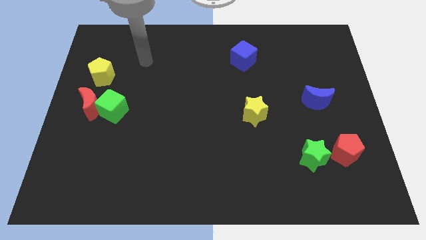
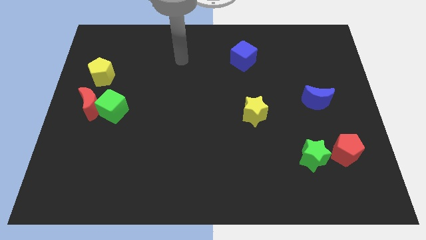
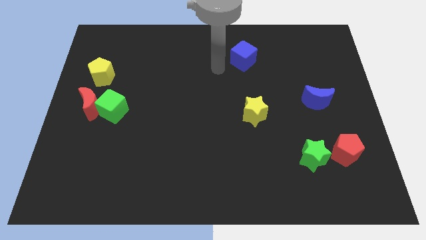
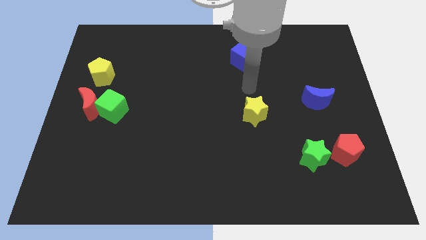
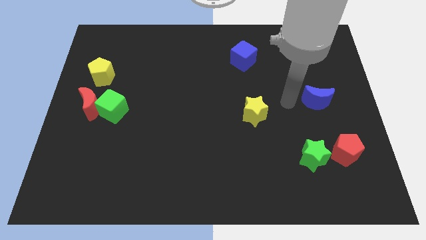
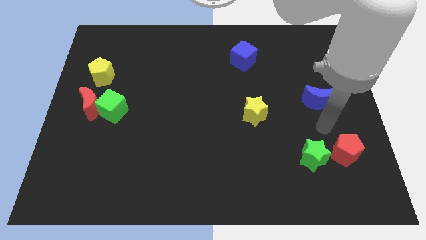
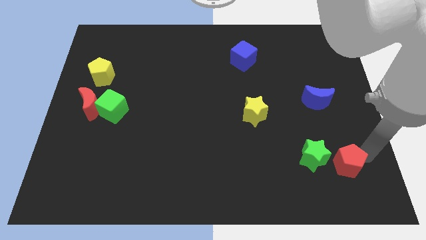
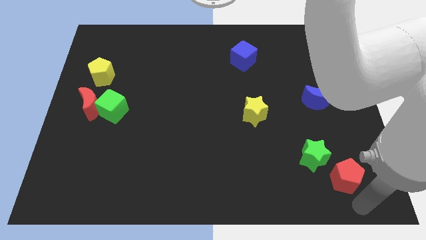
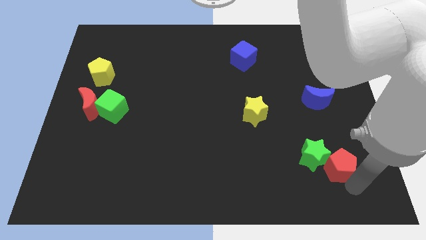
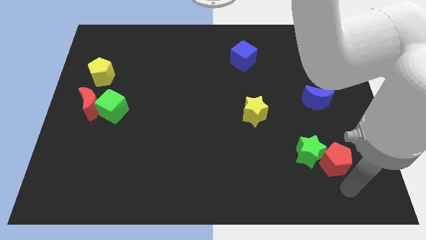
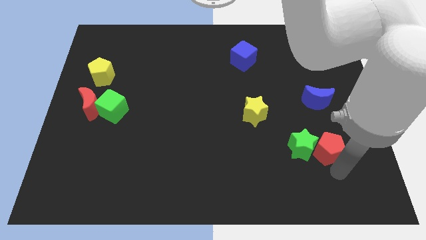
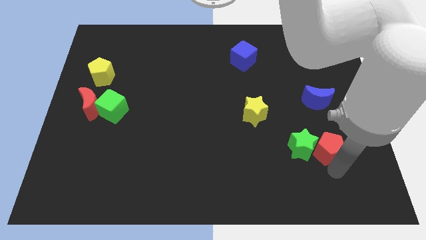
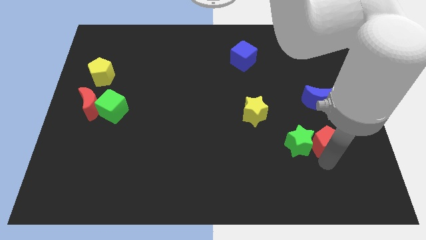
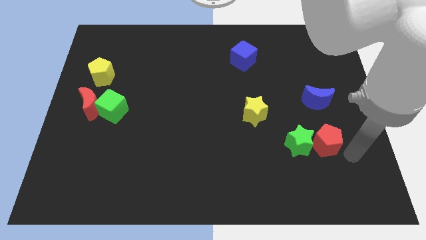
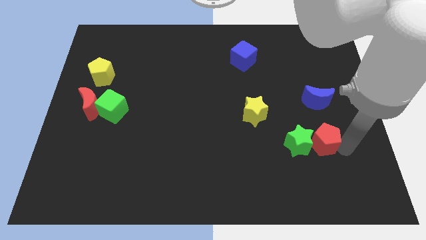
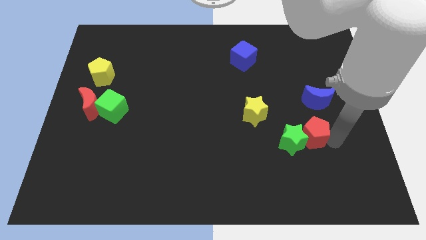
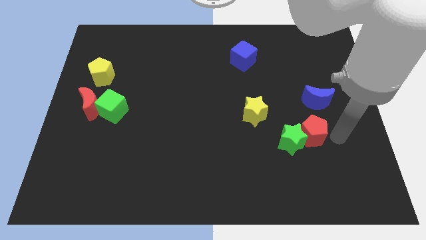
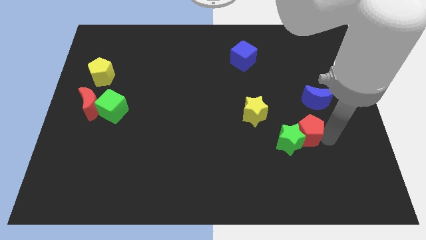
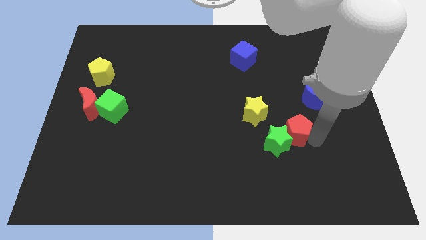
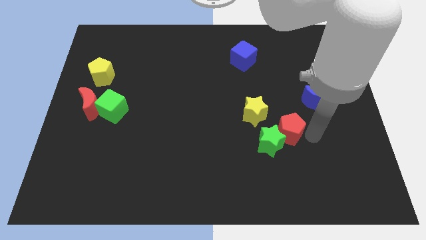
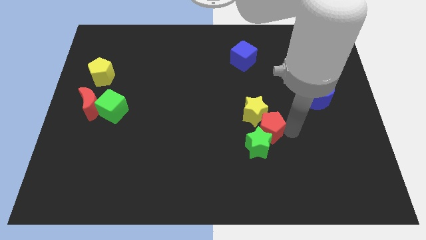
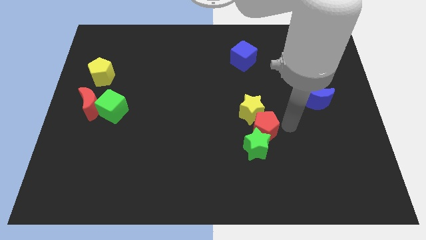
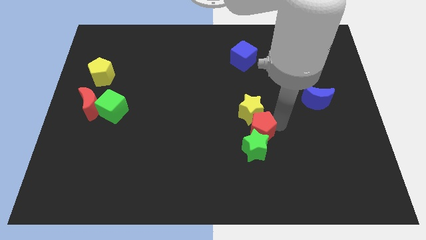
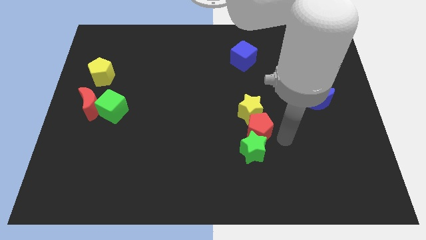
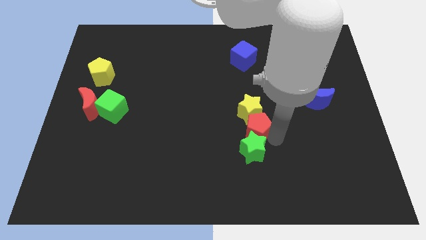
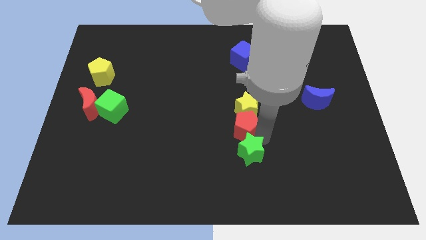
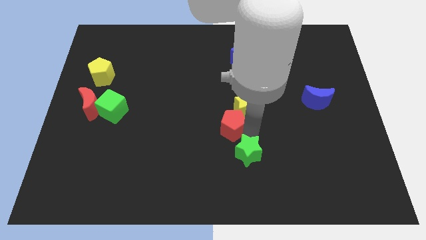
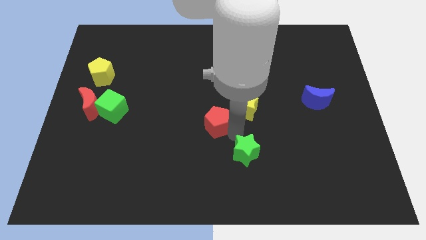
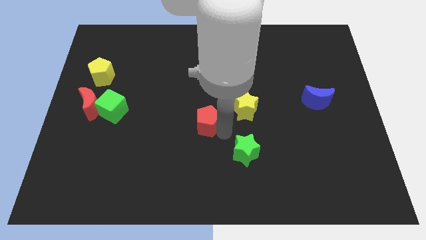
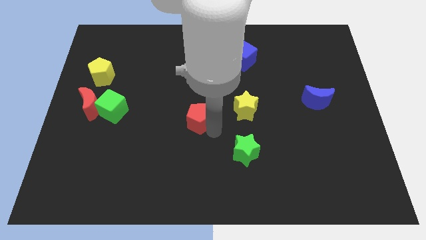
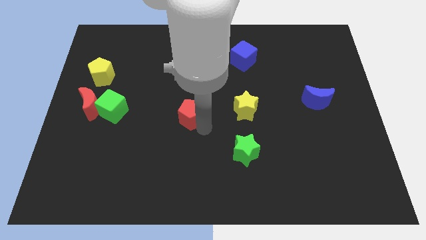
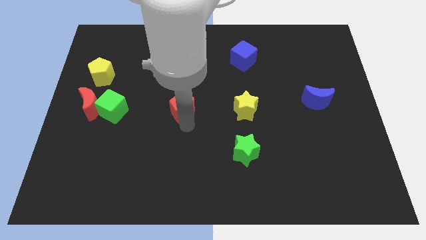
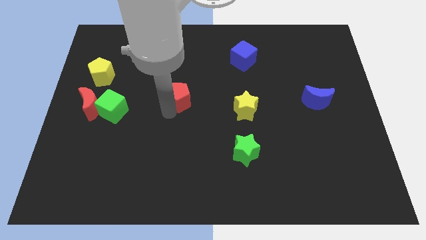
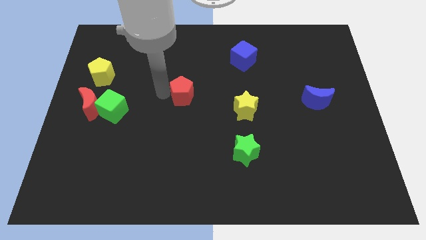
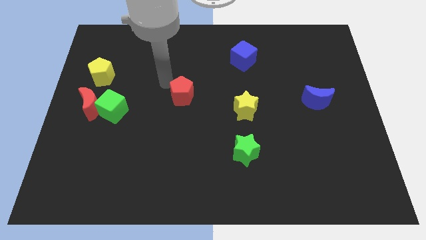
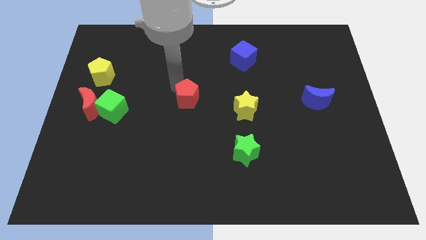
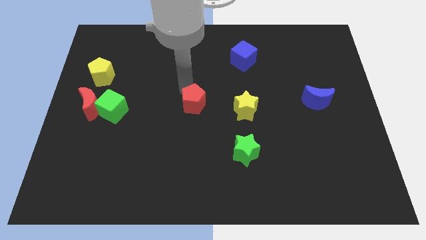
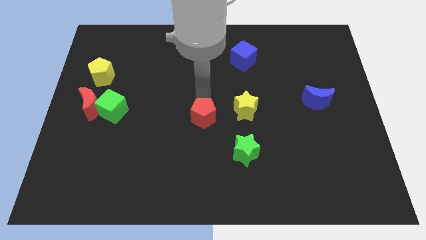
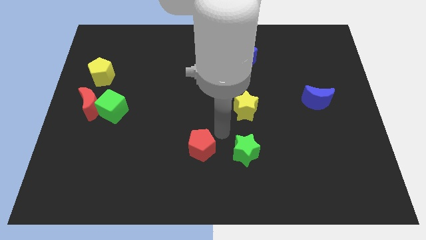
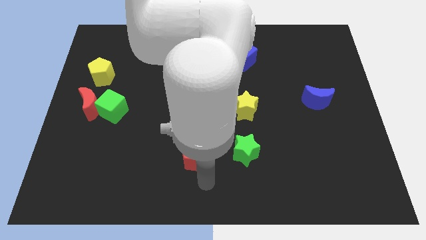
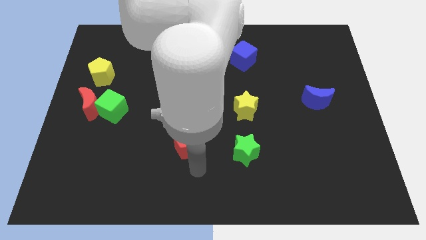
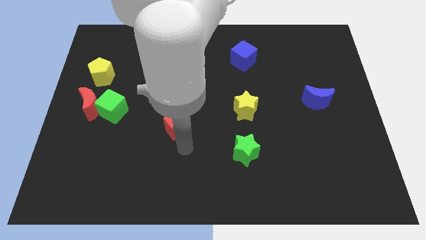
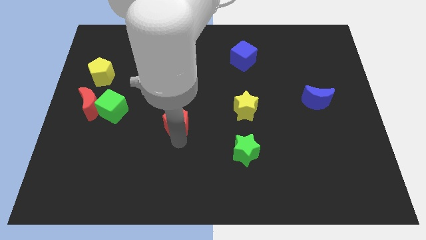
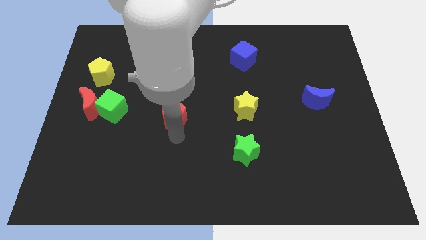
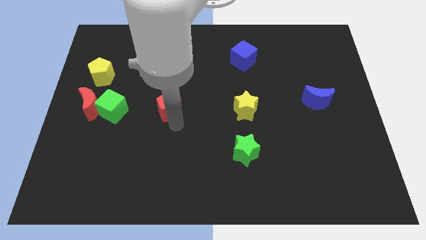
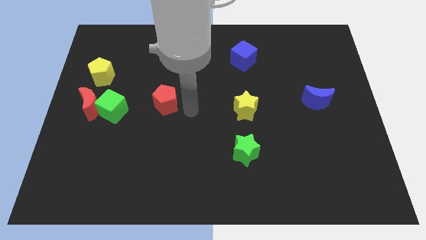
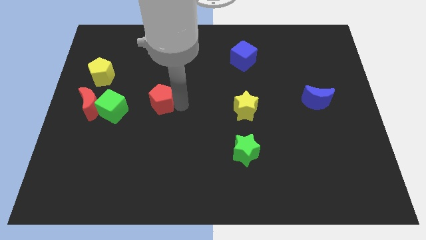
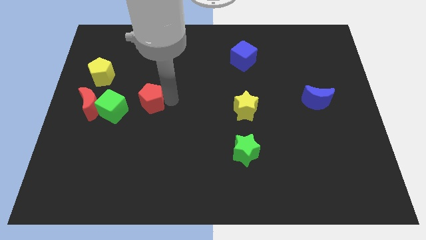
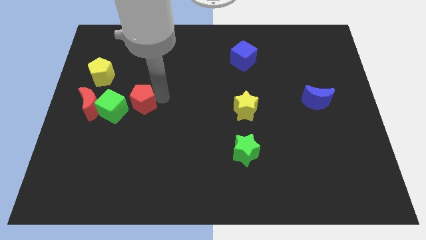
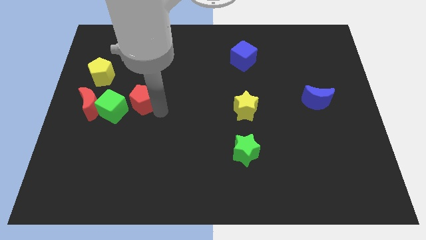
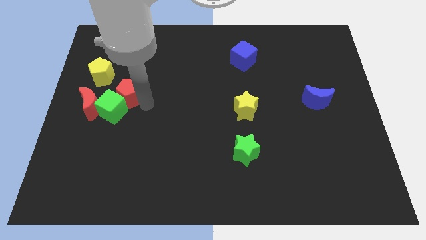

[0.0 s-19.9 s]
push the red pentagon to the top right of the red moon

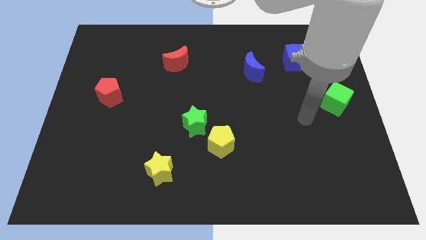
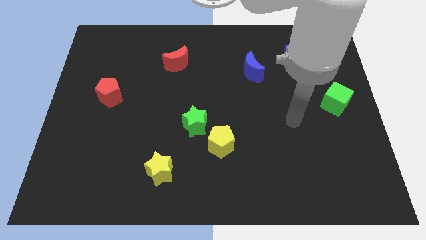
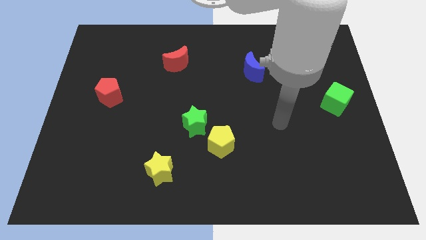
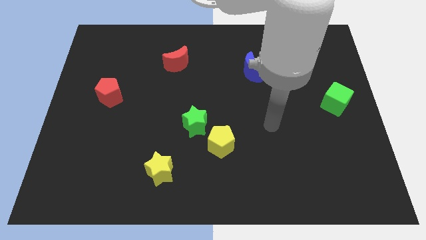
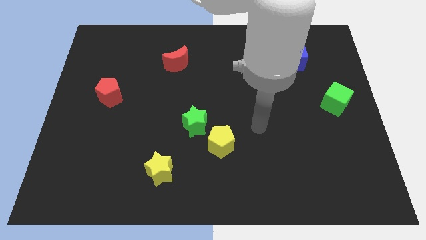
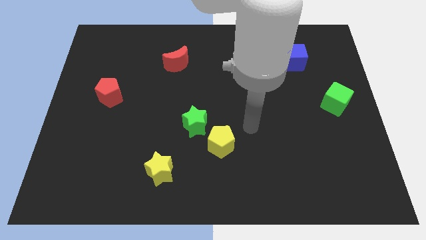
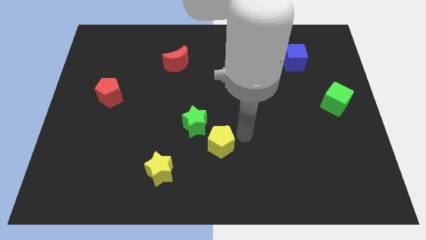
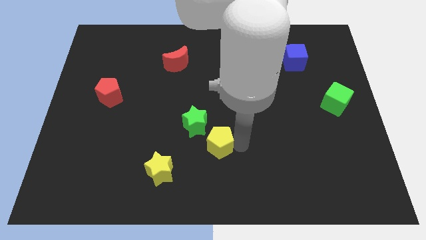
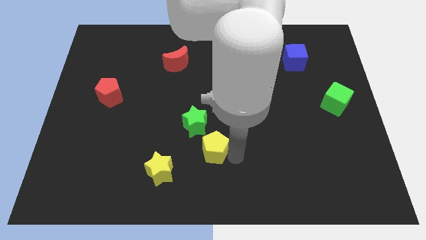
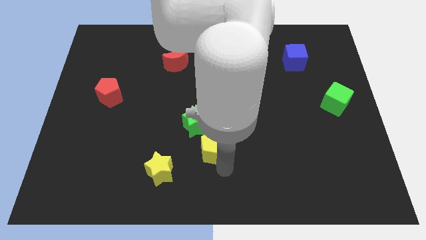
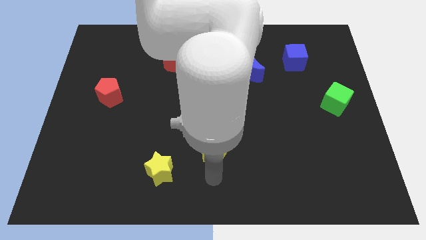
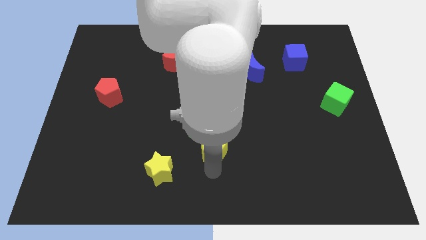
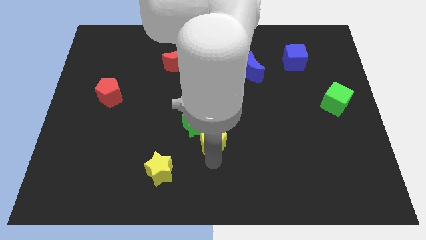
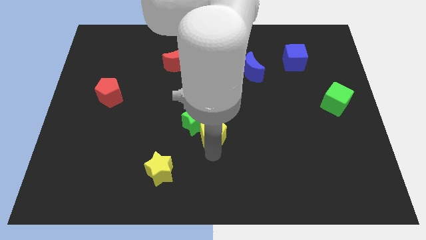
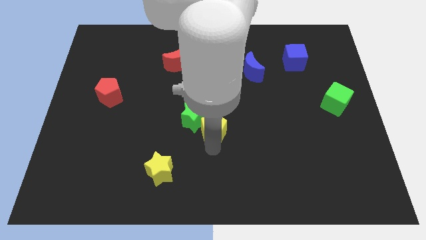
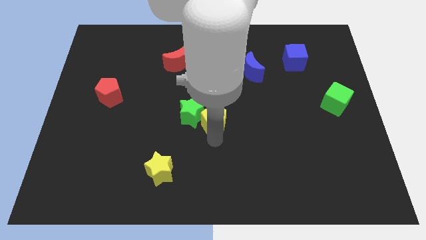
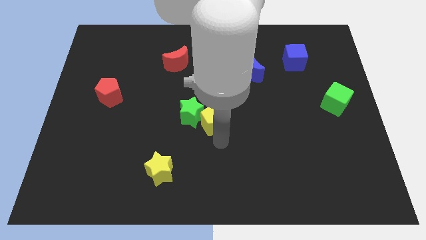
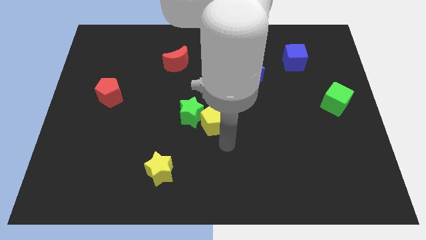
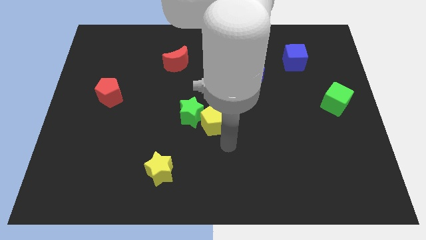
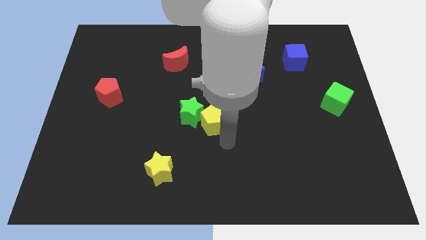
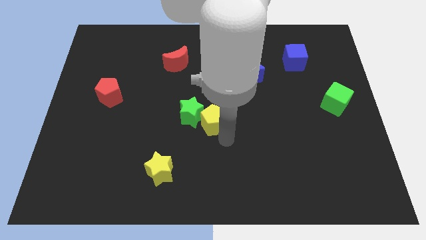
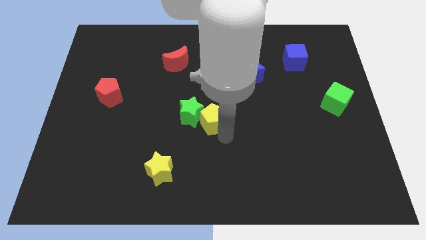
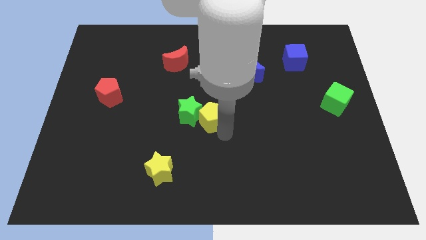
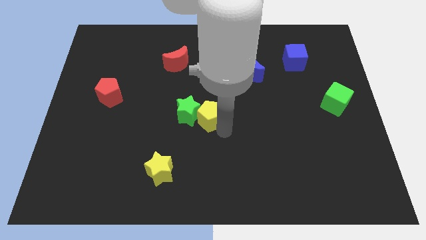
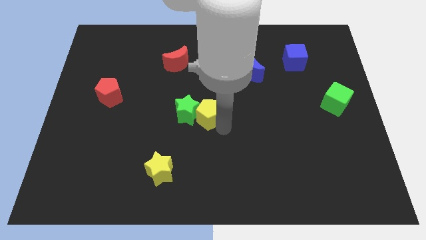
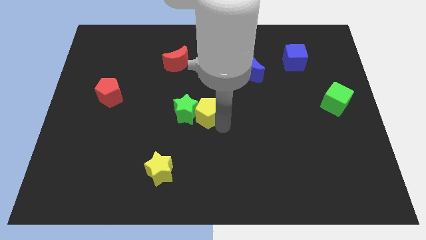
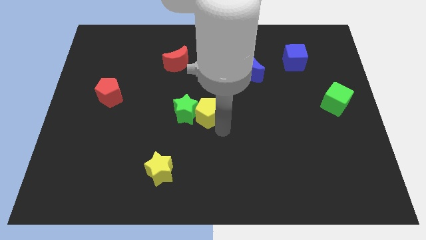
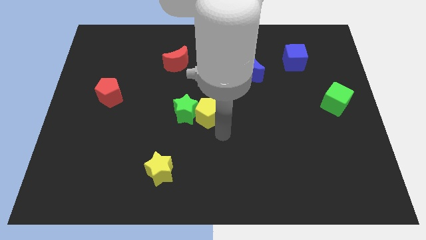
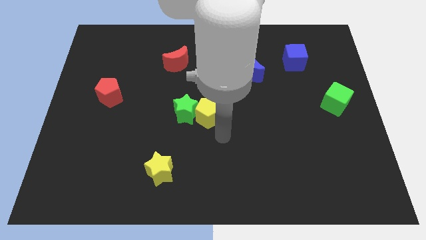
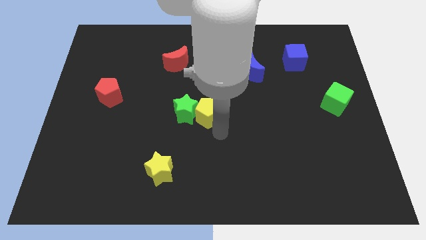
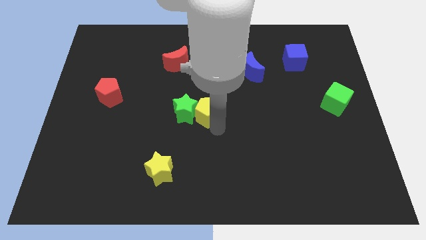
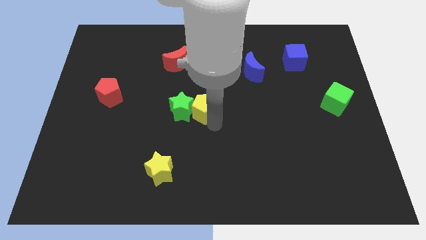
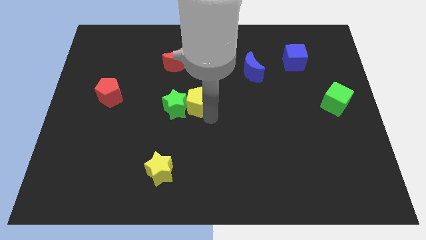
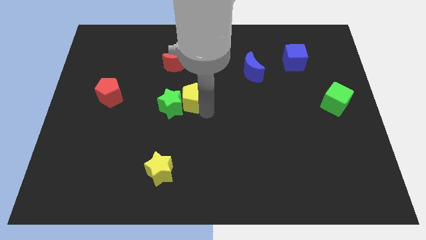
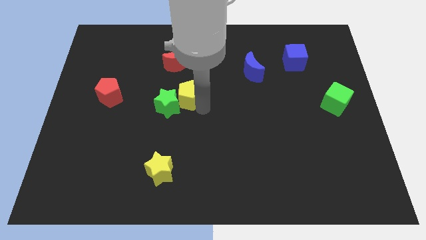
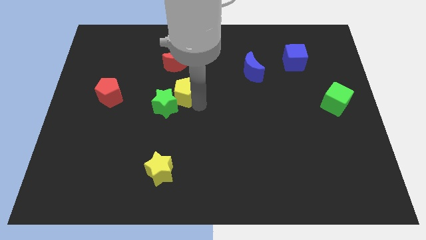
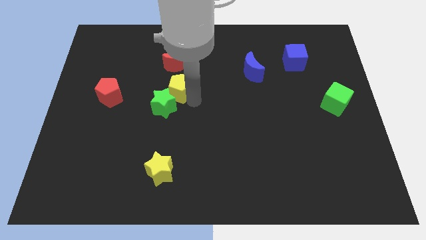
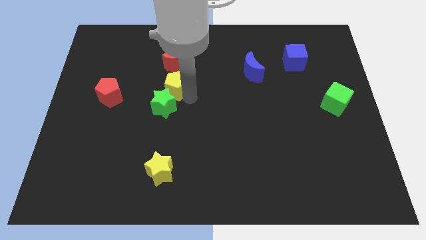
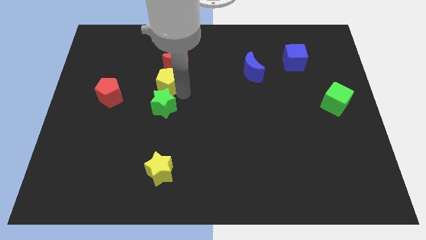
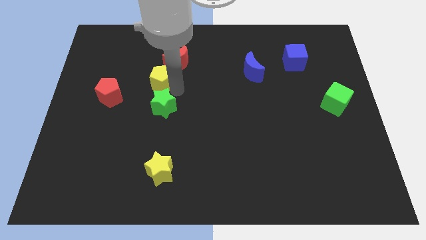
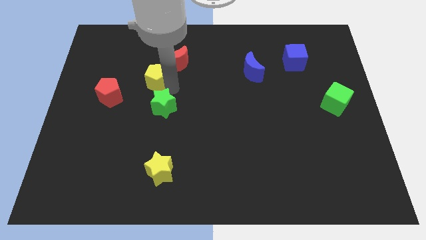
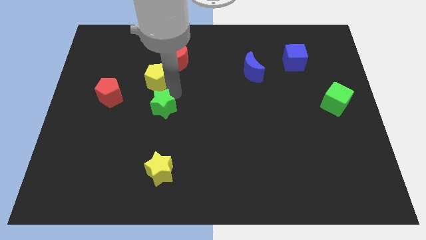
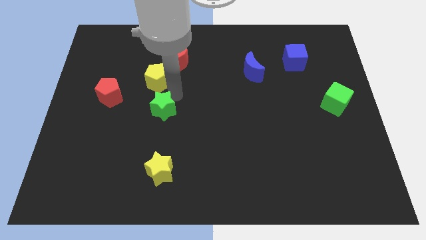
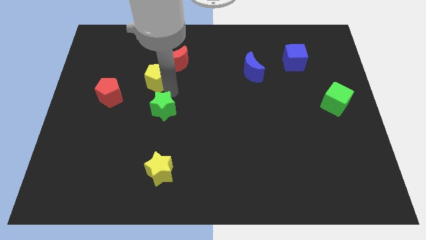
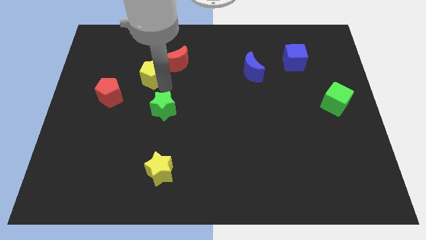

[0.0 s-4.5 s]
move the yellow pentagon to the left of the red moon
